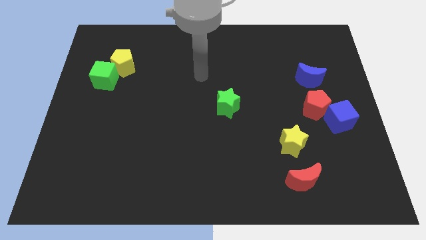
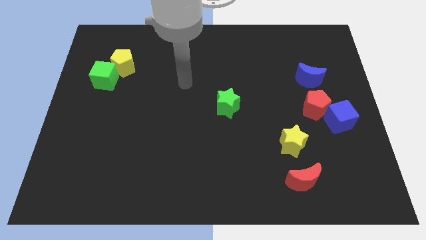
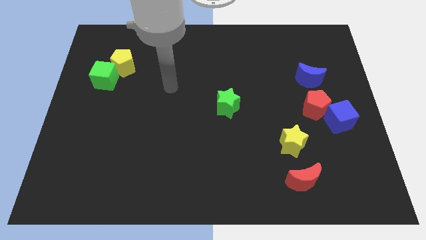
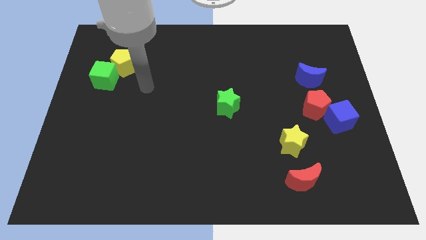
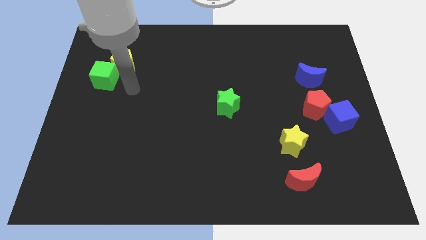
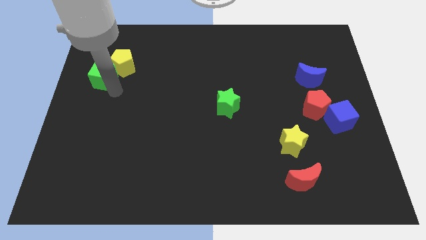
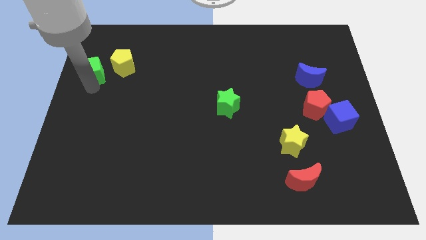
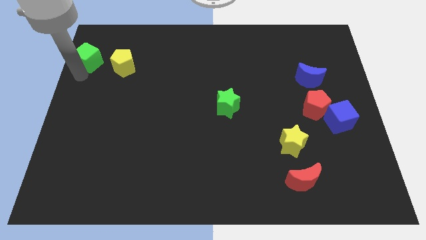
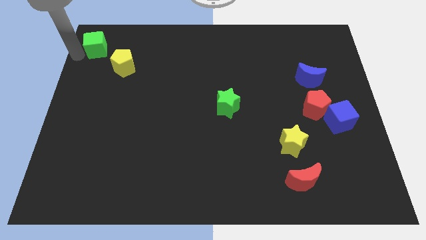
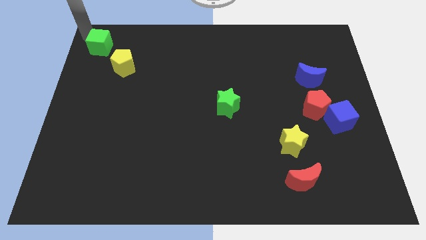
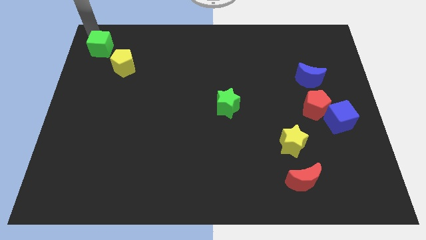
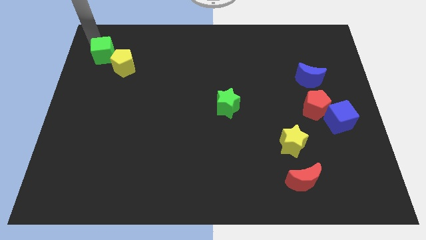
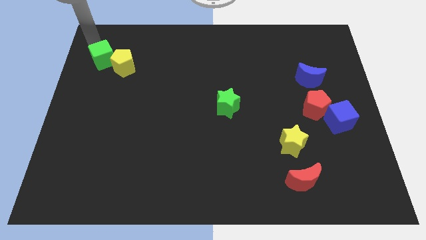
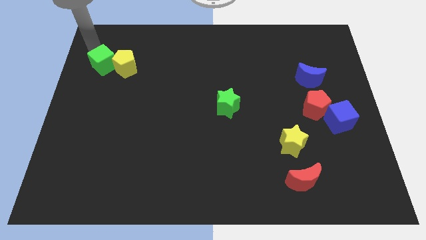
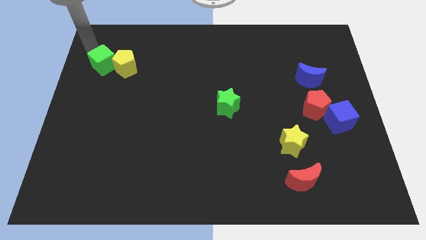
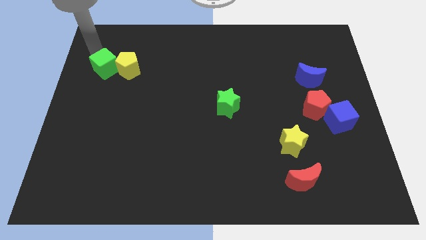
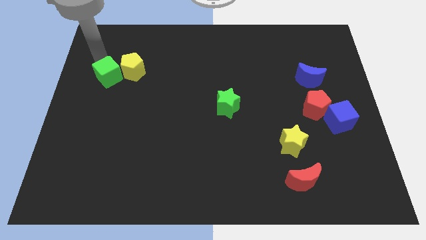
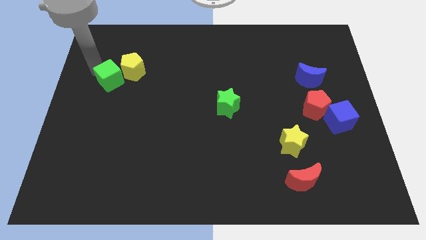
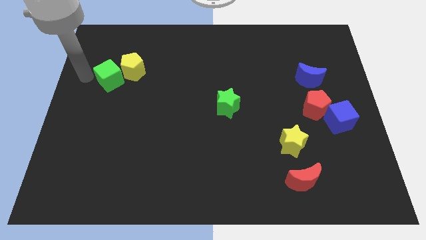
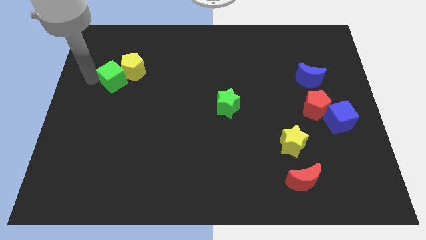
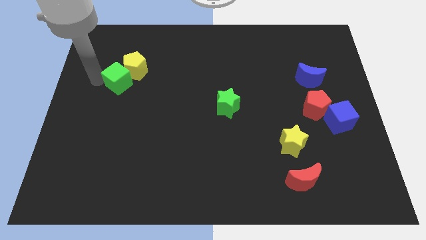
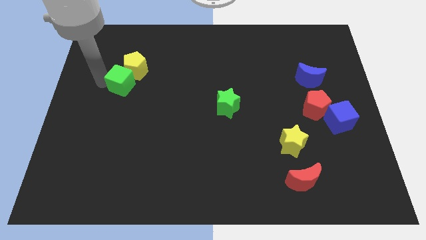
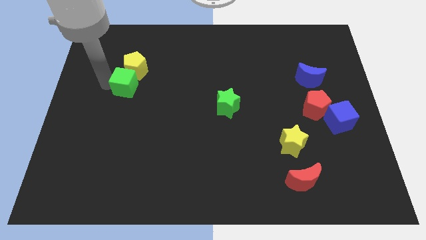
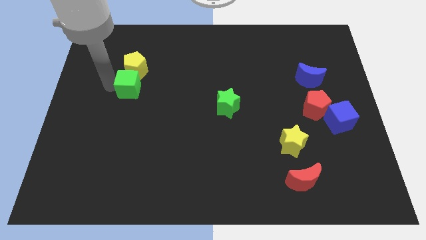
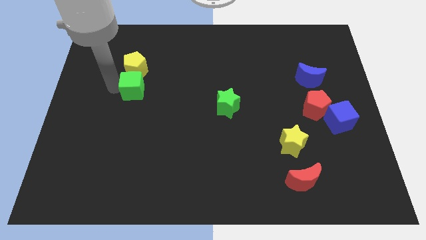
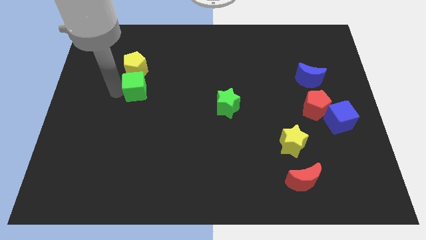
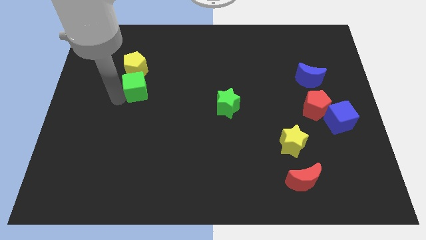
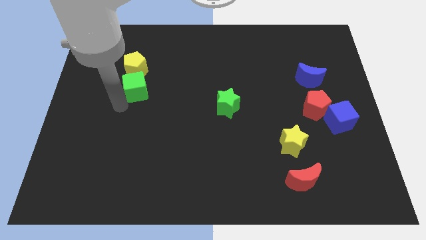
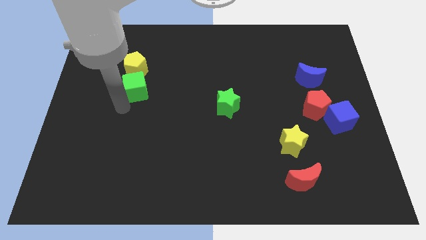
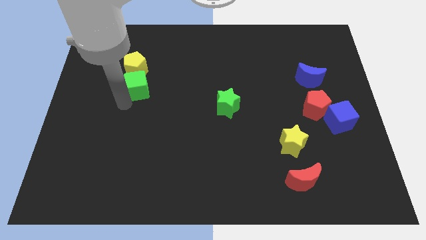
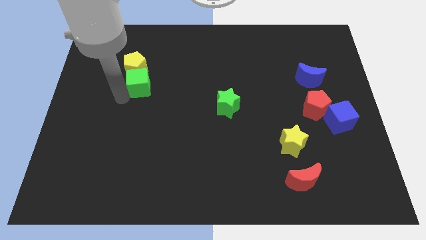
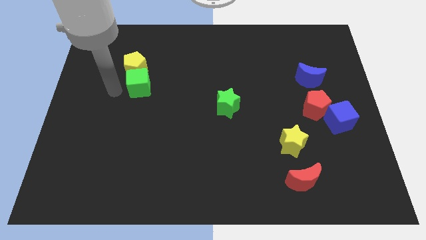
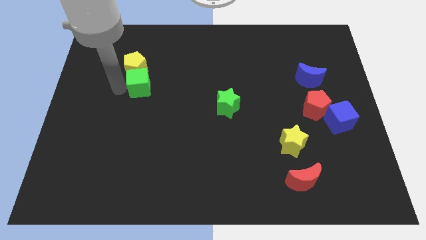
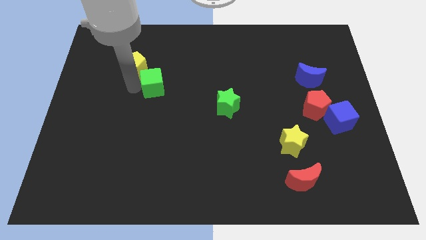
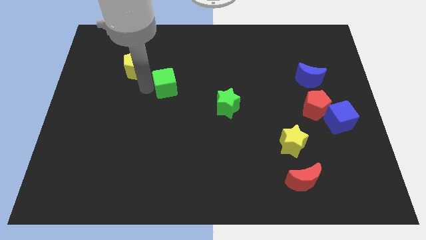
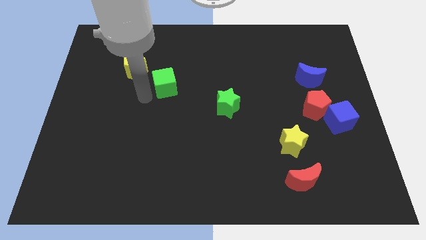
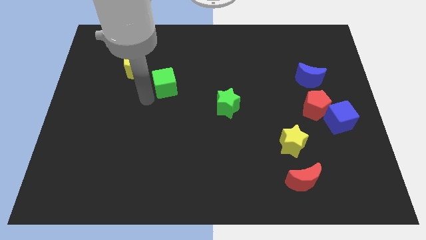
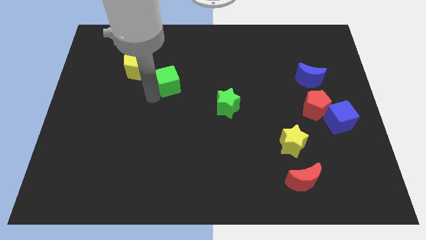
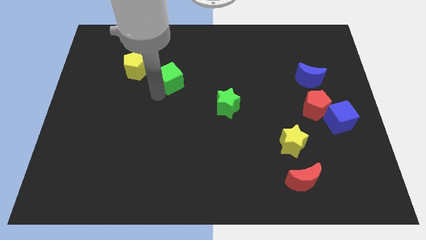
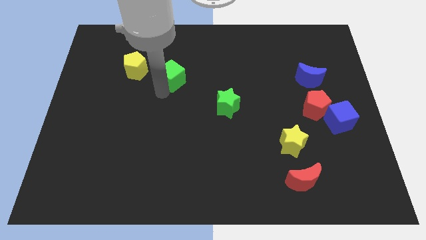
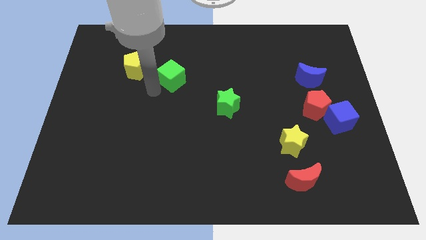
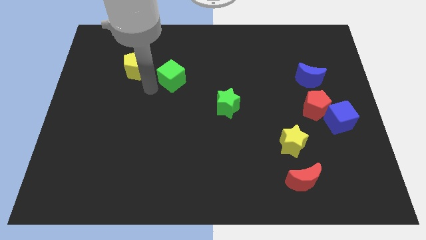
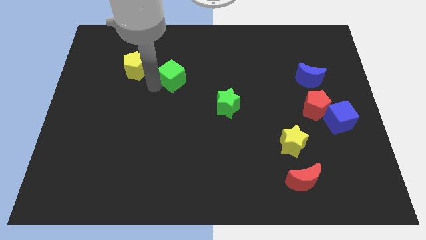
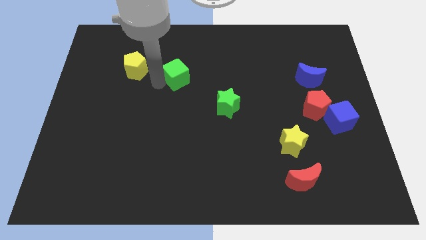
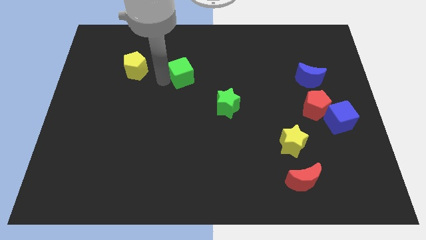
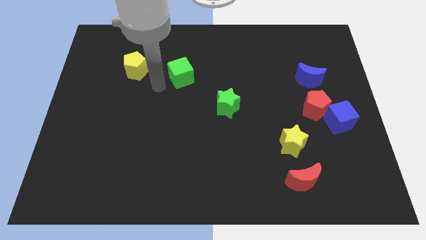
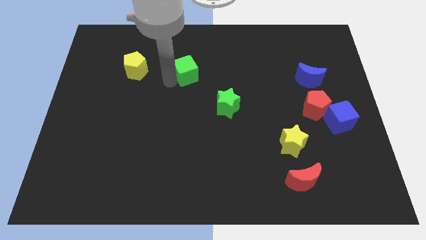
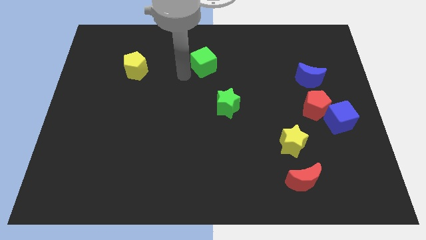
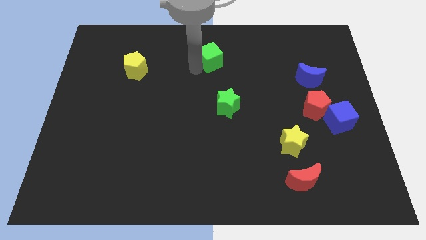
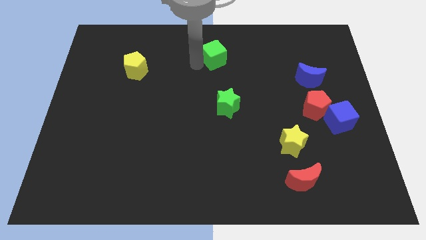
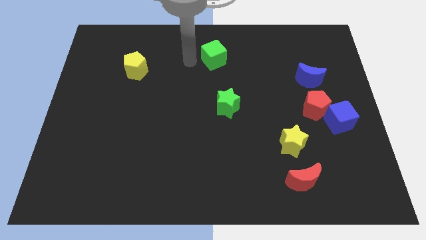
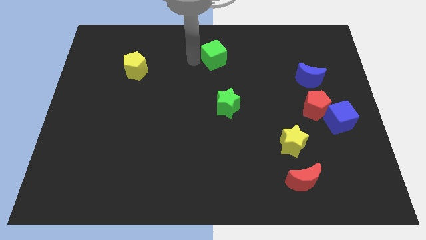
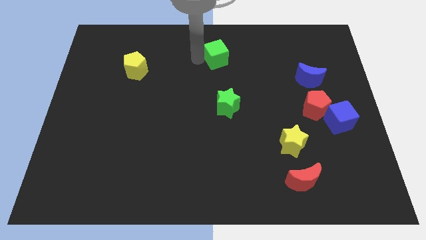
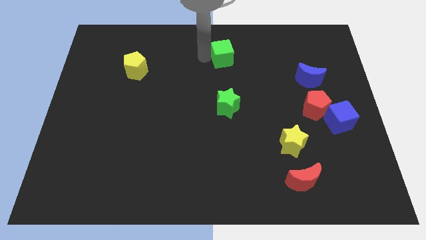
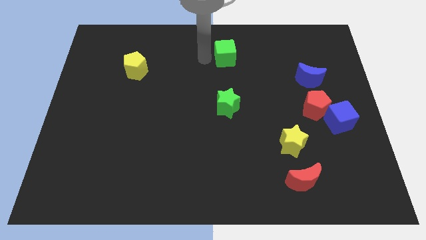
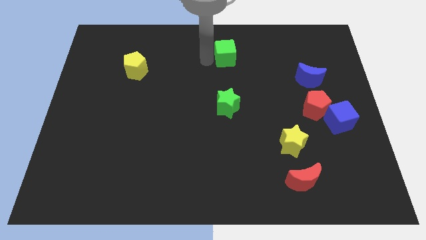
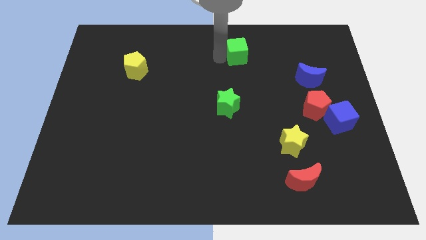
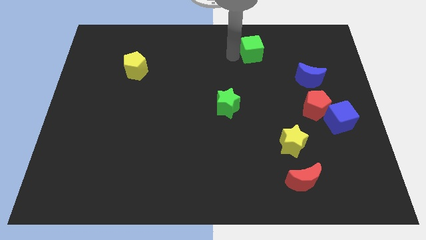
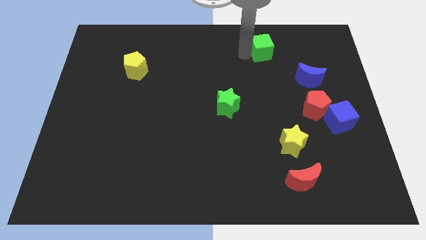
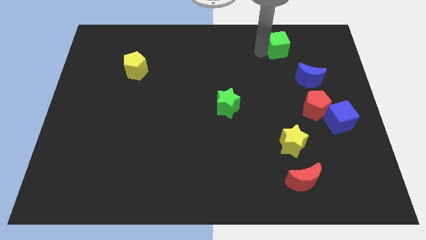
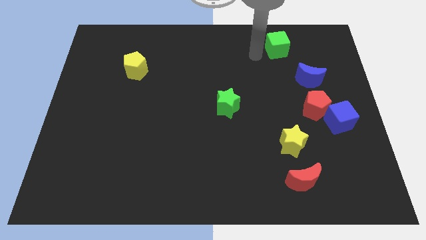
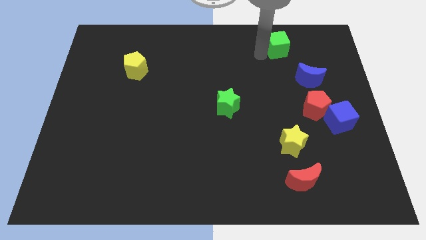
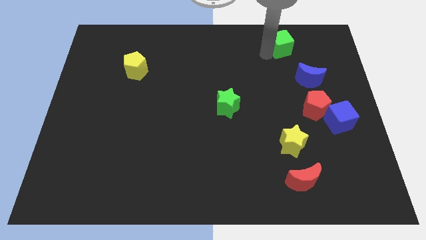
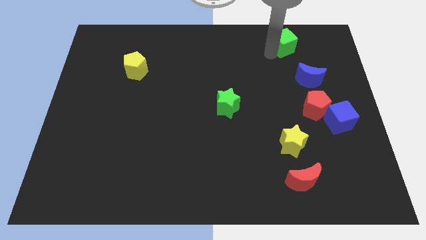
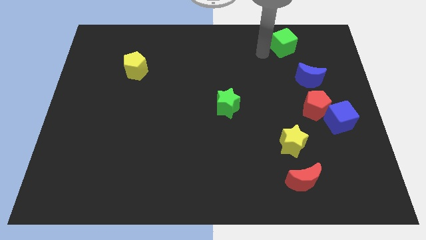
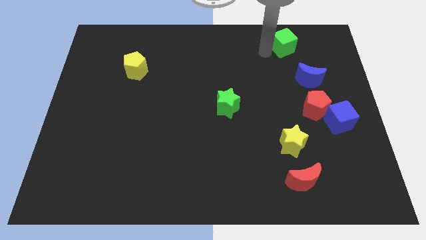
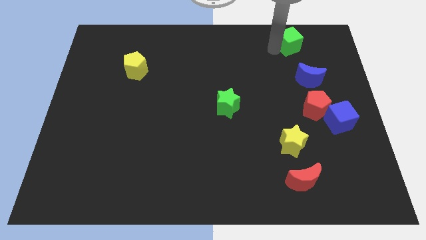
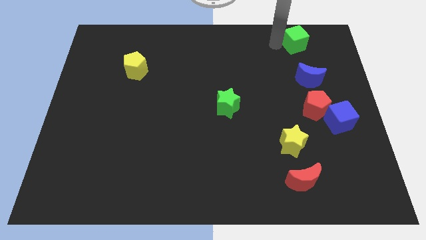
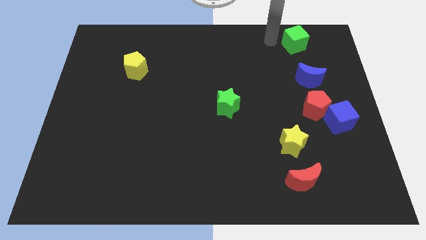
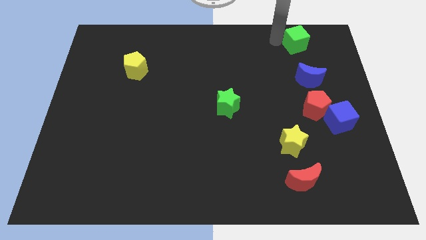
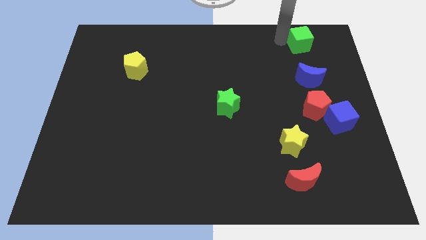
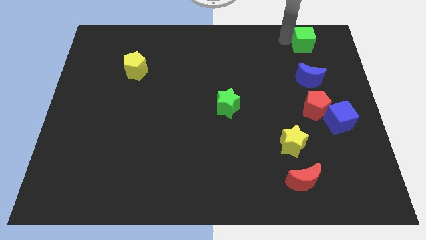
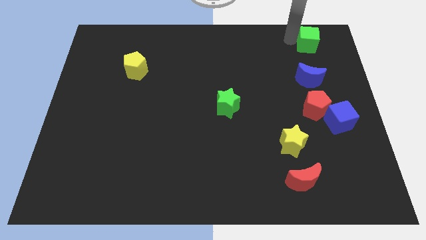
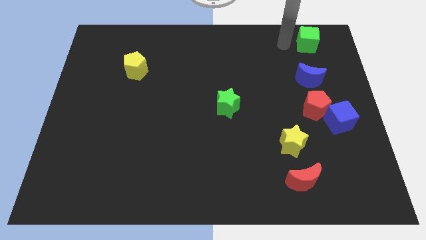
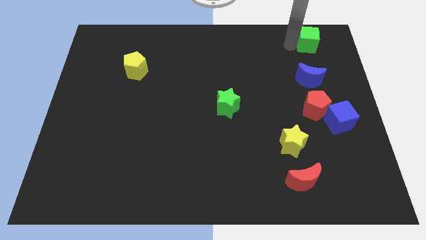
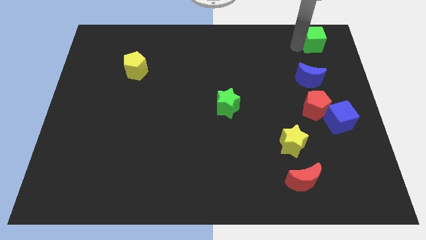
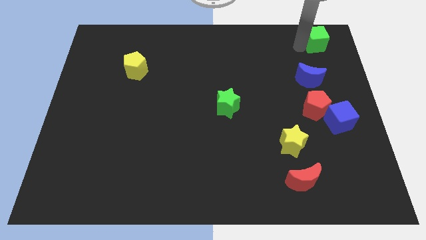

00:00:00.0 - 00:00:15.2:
slide the green cube to the top right

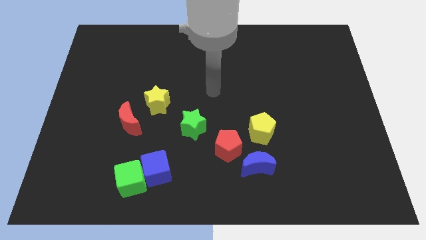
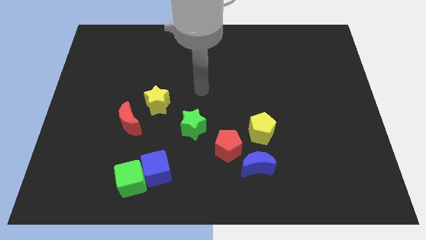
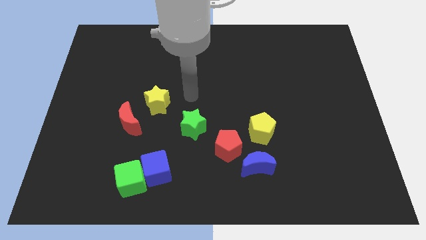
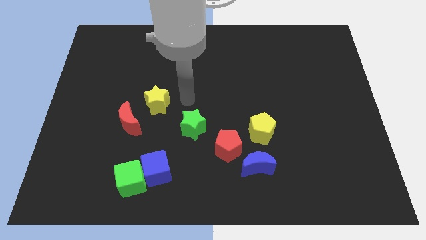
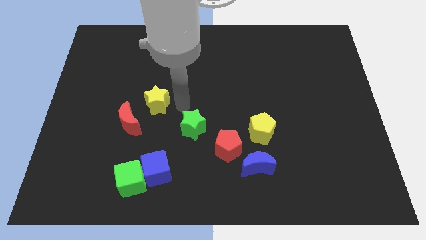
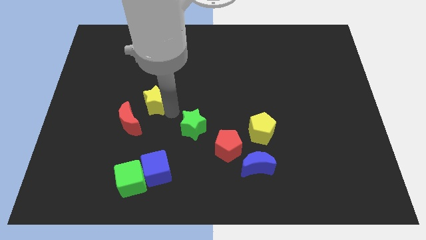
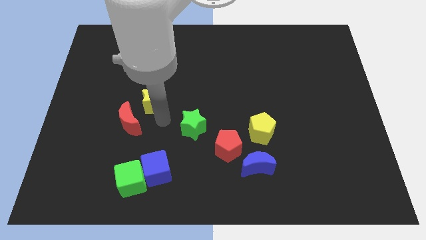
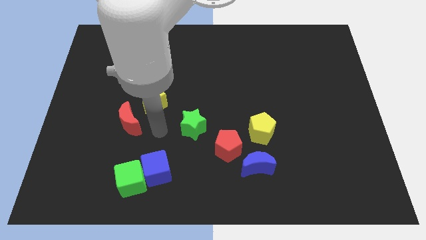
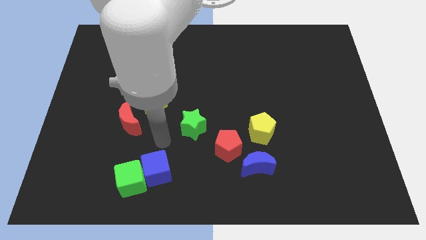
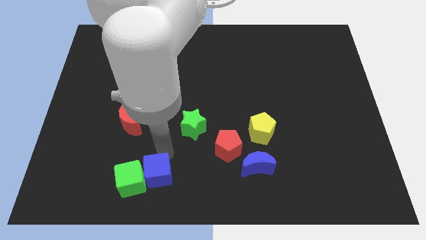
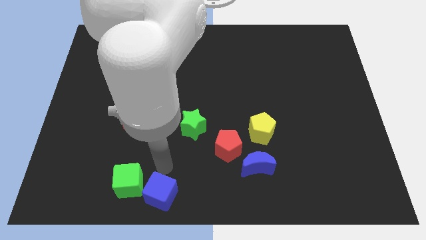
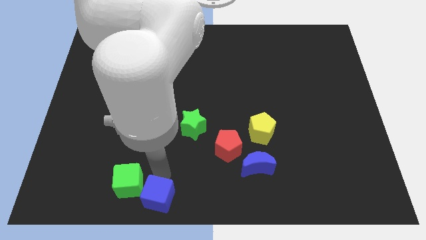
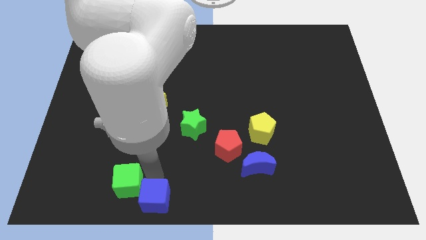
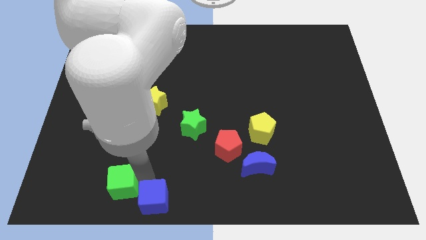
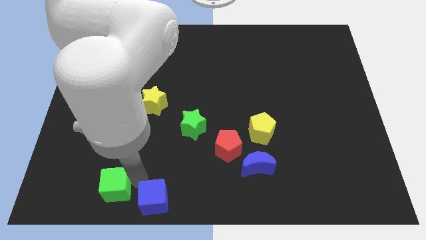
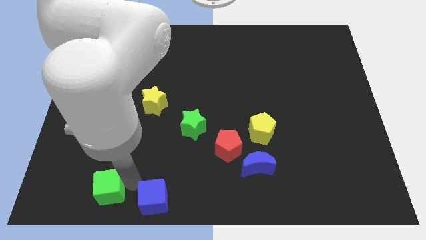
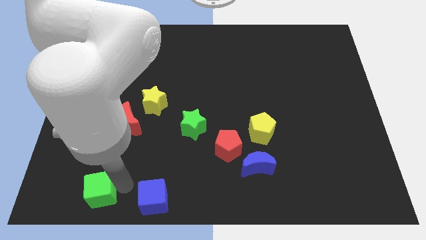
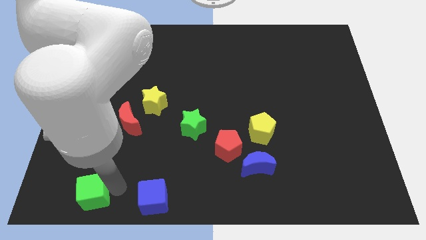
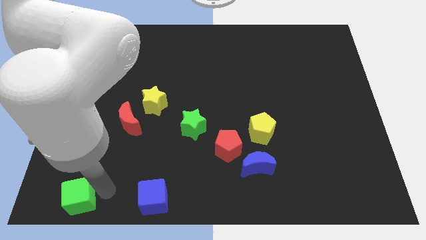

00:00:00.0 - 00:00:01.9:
move the green cube to the bottom left corner
